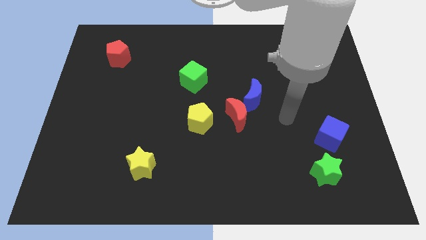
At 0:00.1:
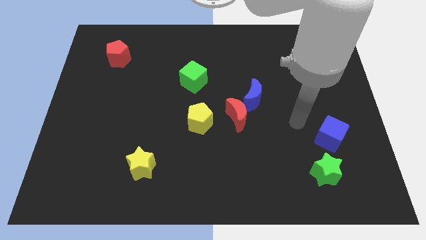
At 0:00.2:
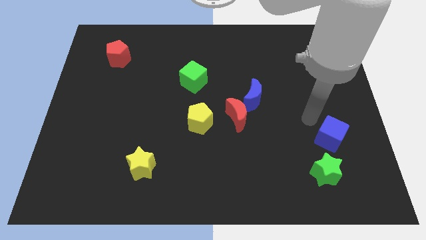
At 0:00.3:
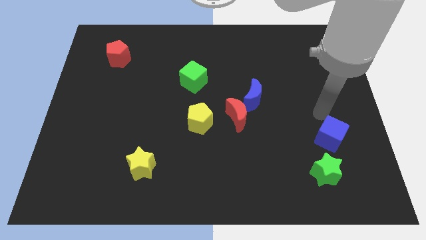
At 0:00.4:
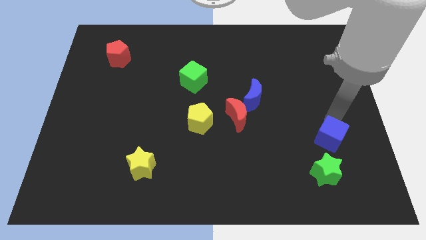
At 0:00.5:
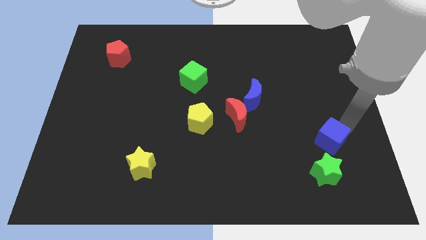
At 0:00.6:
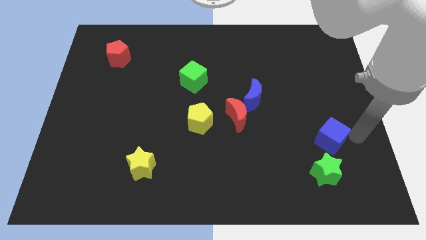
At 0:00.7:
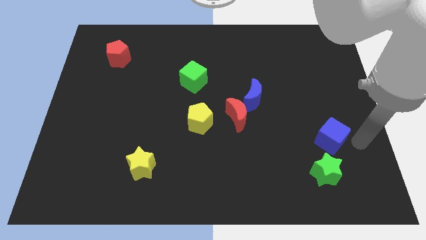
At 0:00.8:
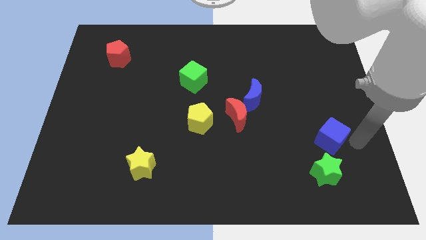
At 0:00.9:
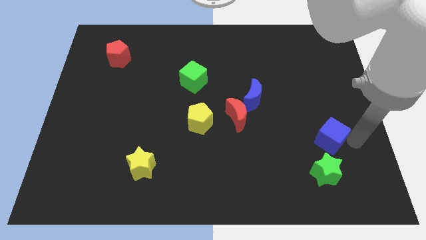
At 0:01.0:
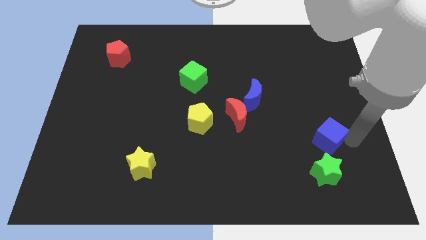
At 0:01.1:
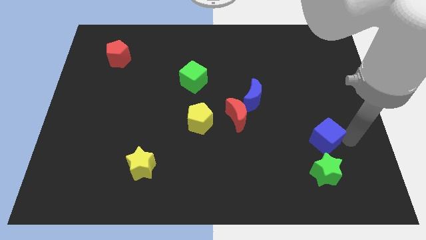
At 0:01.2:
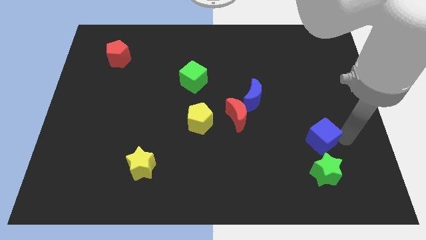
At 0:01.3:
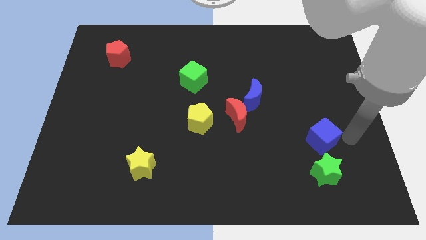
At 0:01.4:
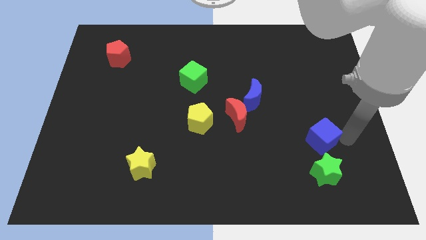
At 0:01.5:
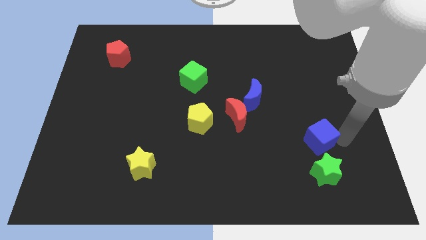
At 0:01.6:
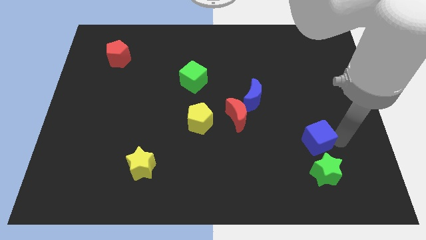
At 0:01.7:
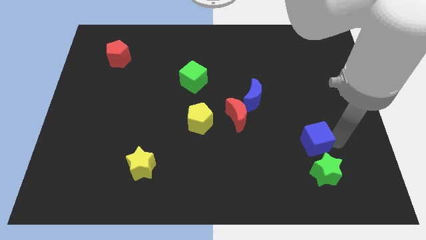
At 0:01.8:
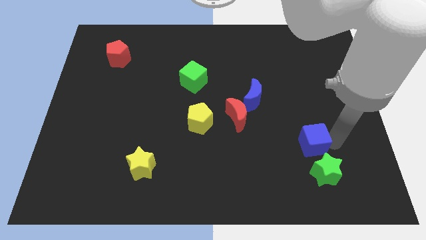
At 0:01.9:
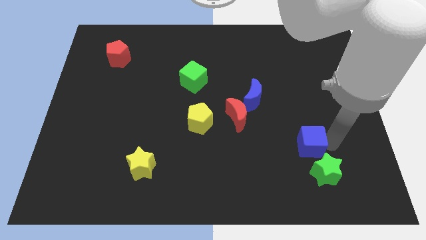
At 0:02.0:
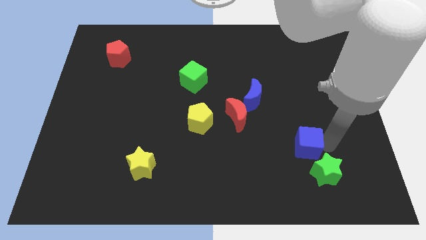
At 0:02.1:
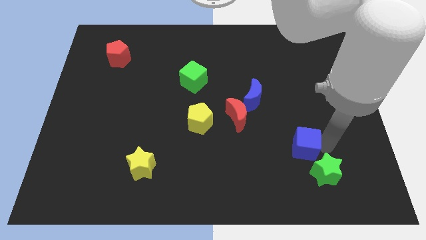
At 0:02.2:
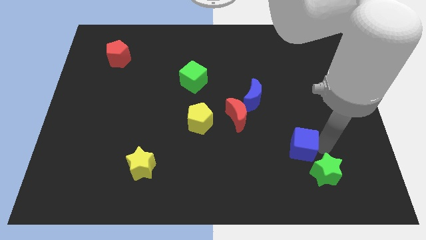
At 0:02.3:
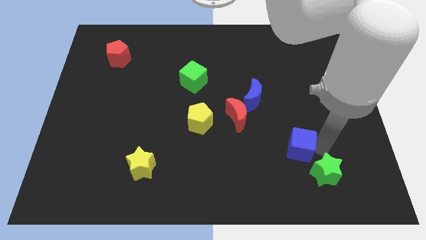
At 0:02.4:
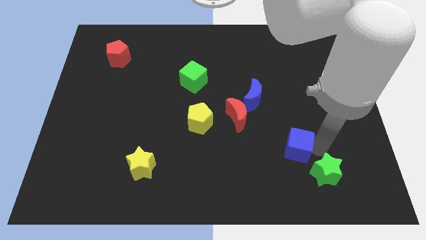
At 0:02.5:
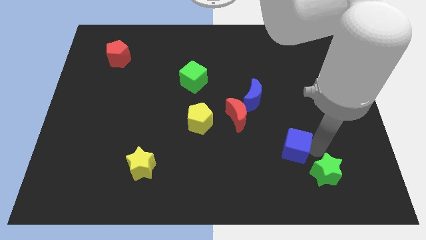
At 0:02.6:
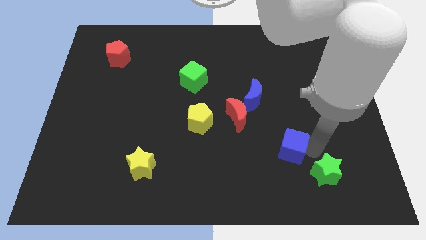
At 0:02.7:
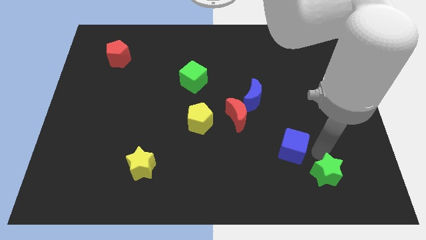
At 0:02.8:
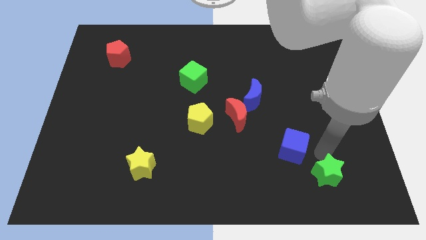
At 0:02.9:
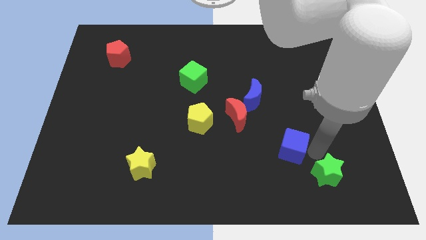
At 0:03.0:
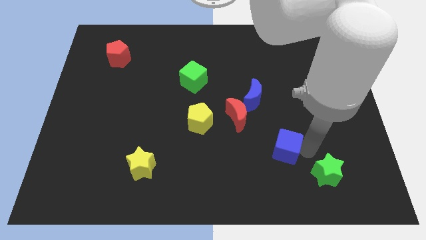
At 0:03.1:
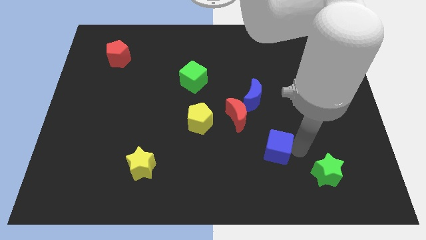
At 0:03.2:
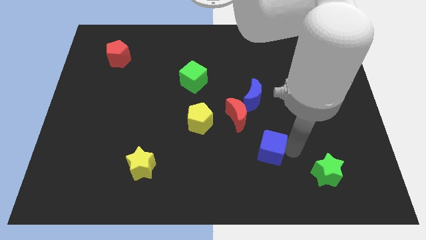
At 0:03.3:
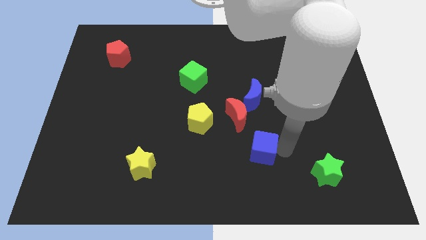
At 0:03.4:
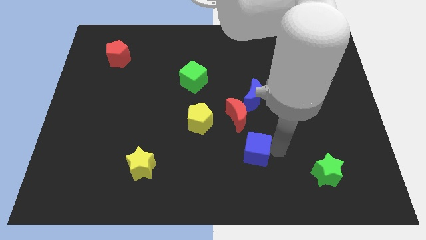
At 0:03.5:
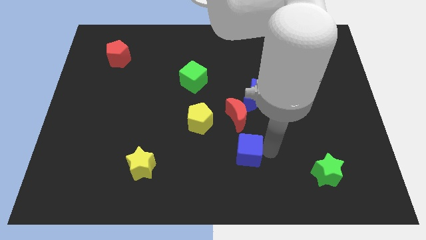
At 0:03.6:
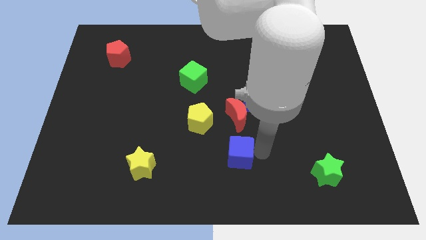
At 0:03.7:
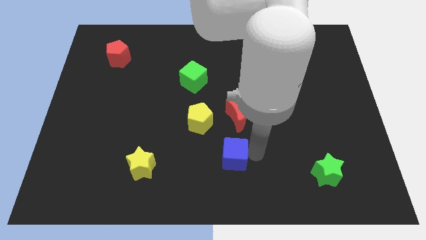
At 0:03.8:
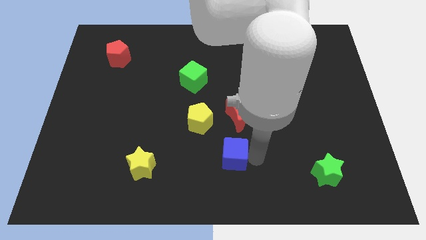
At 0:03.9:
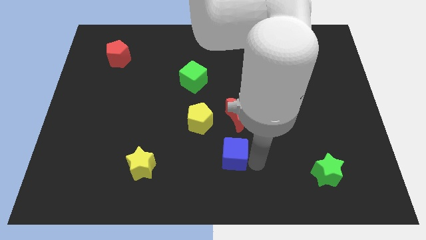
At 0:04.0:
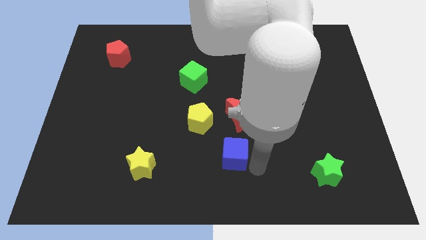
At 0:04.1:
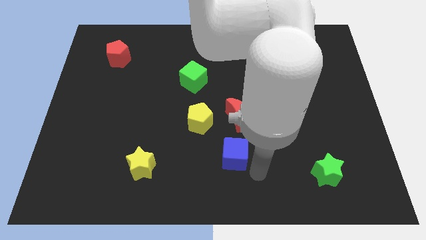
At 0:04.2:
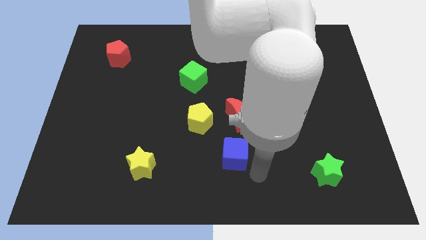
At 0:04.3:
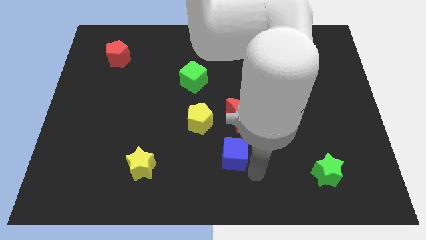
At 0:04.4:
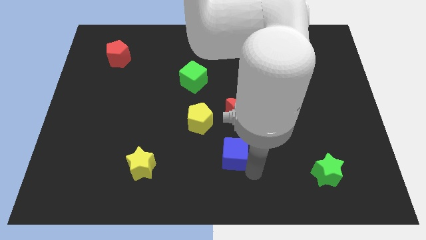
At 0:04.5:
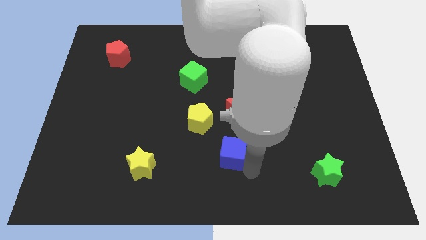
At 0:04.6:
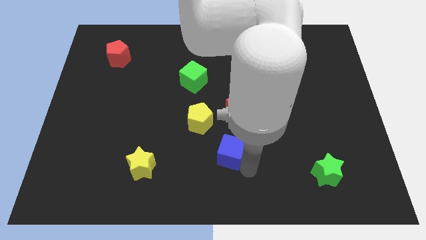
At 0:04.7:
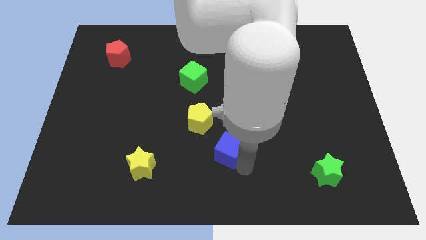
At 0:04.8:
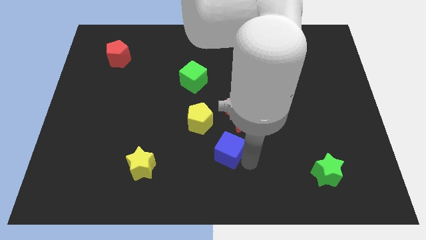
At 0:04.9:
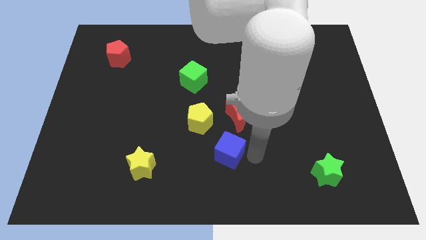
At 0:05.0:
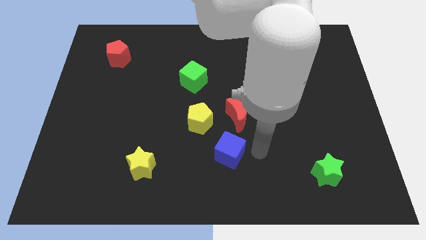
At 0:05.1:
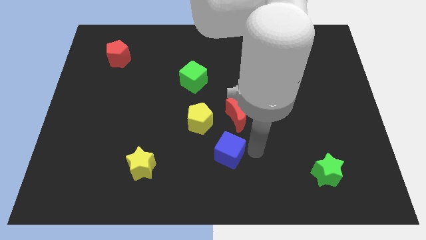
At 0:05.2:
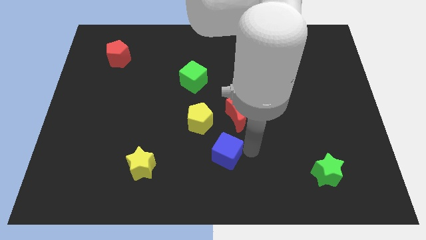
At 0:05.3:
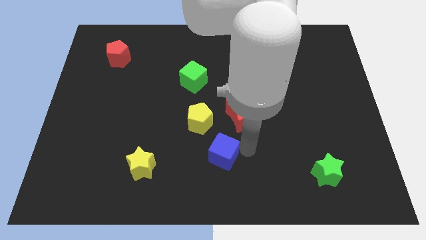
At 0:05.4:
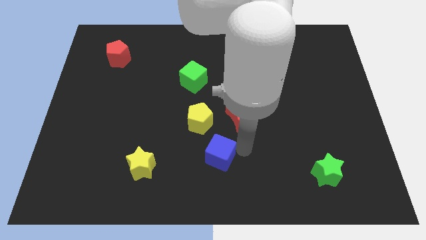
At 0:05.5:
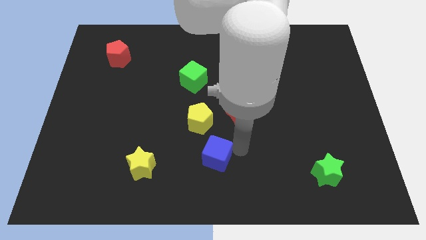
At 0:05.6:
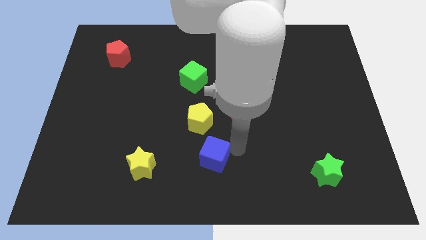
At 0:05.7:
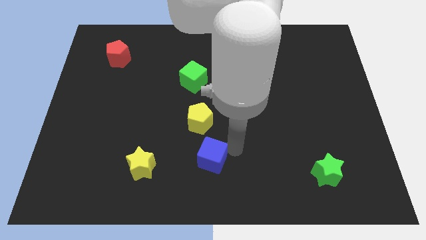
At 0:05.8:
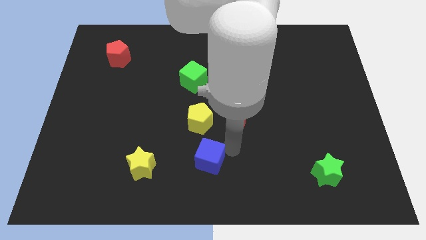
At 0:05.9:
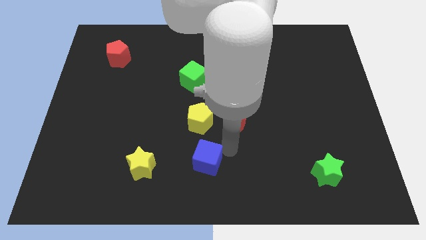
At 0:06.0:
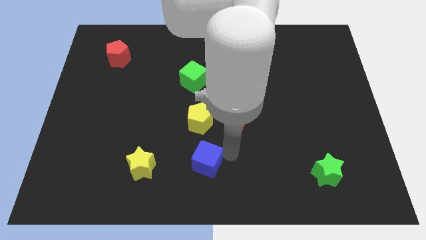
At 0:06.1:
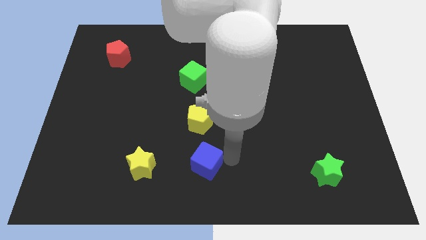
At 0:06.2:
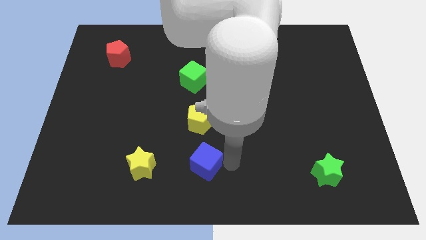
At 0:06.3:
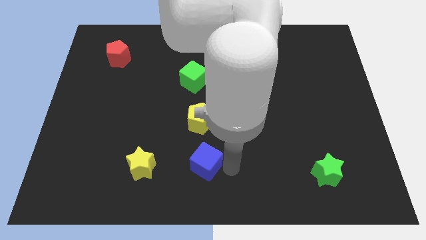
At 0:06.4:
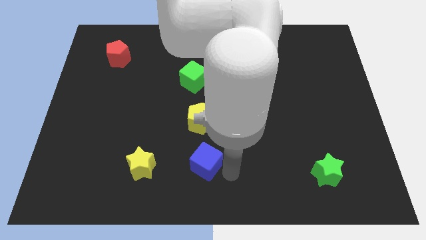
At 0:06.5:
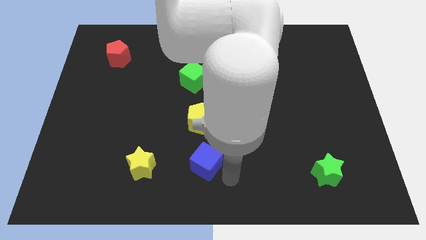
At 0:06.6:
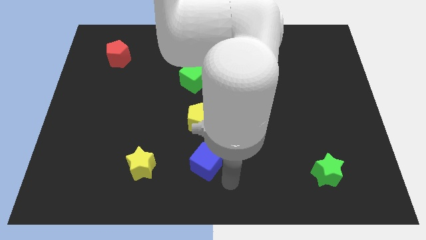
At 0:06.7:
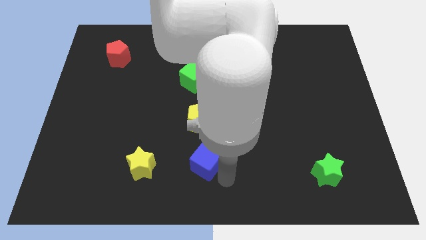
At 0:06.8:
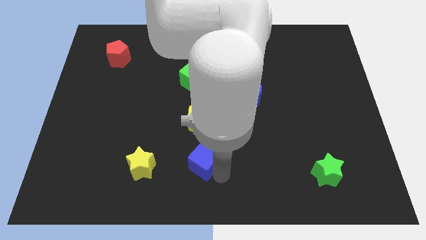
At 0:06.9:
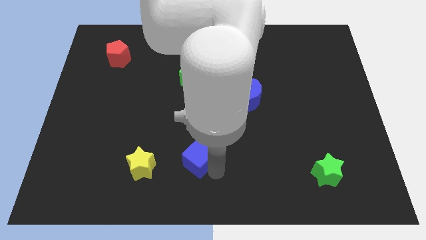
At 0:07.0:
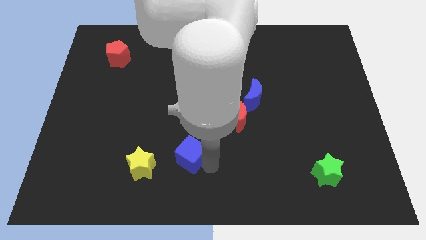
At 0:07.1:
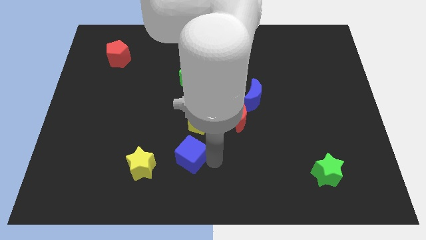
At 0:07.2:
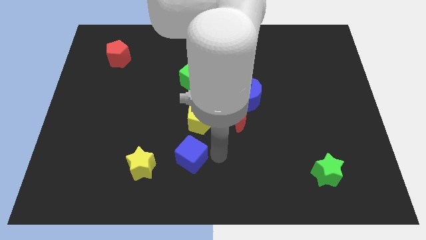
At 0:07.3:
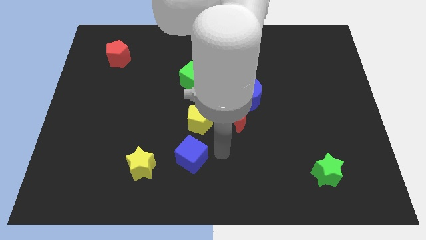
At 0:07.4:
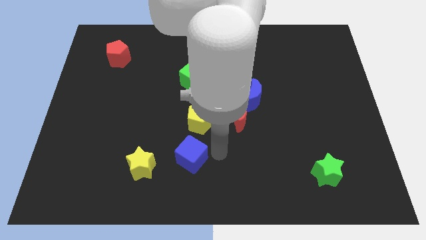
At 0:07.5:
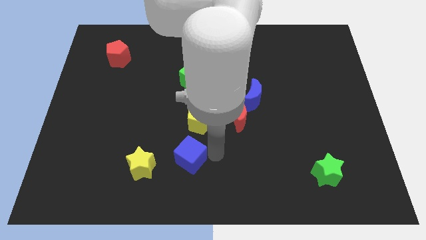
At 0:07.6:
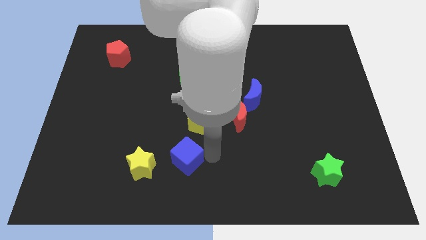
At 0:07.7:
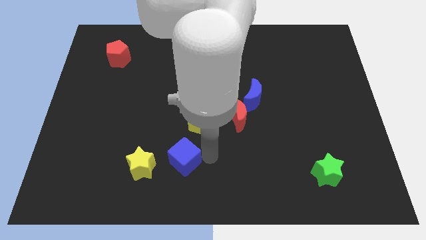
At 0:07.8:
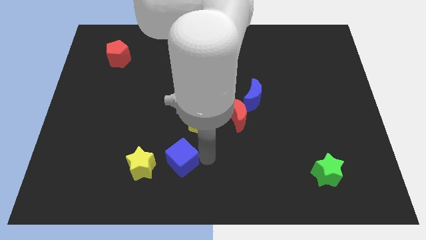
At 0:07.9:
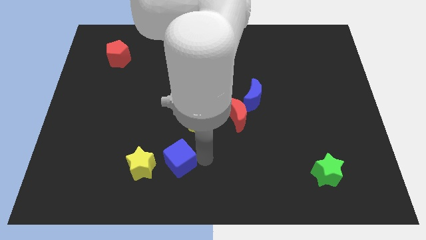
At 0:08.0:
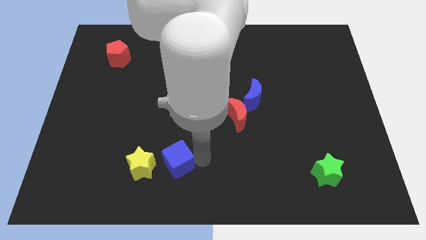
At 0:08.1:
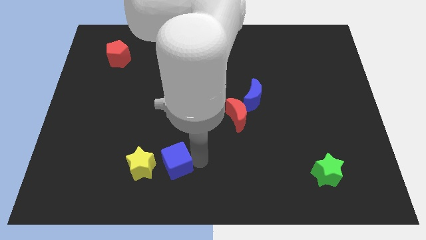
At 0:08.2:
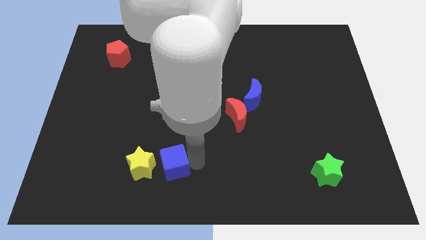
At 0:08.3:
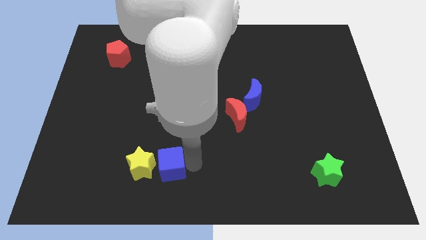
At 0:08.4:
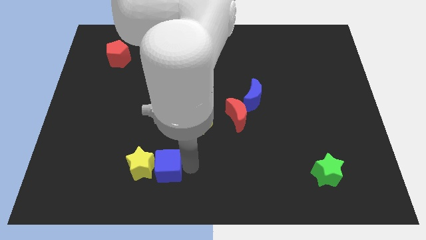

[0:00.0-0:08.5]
push the blue cube to the yellow star
